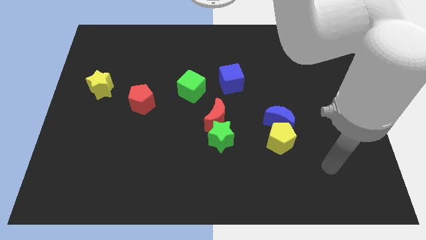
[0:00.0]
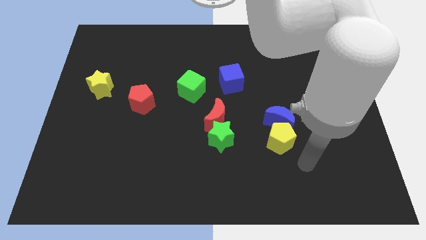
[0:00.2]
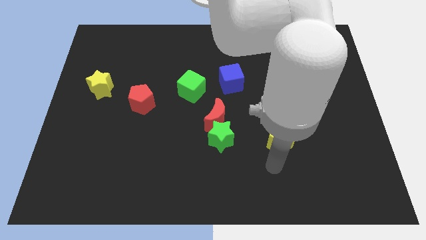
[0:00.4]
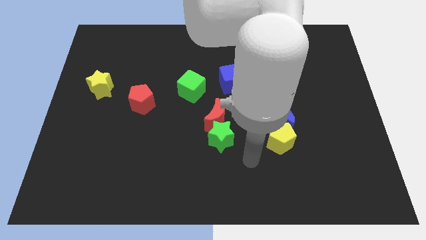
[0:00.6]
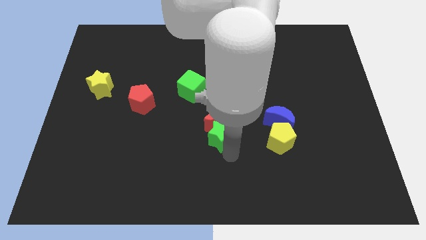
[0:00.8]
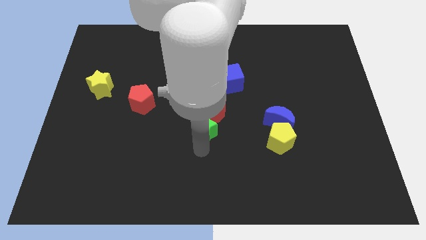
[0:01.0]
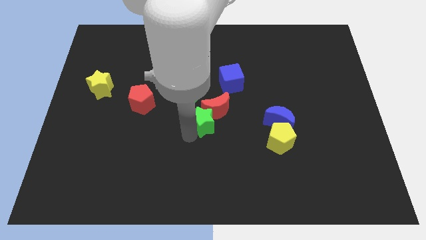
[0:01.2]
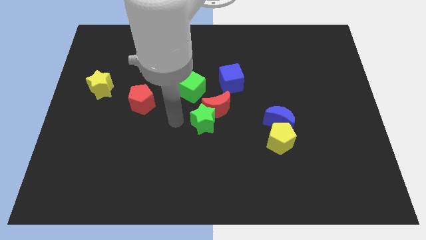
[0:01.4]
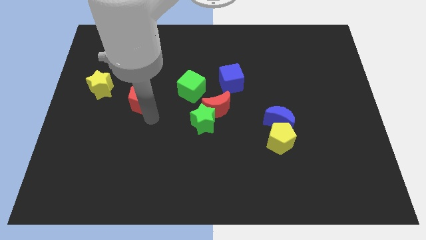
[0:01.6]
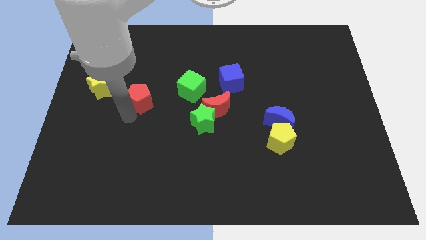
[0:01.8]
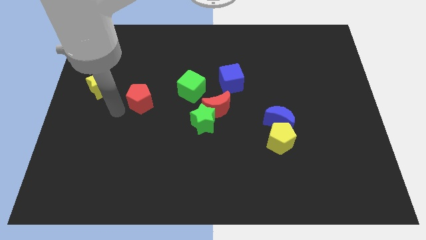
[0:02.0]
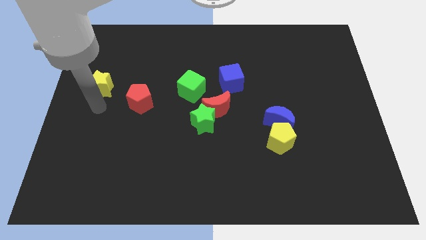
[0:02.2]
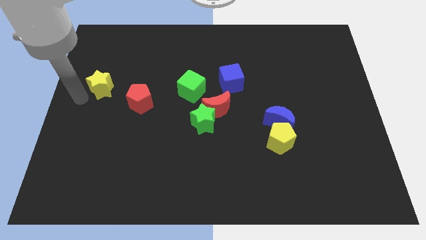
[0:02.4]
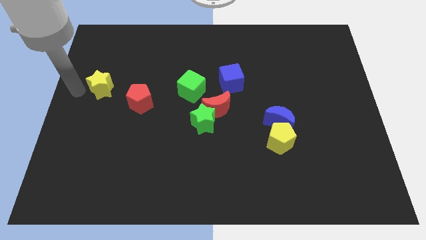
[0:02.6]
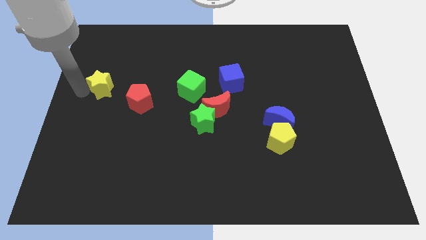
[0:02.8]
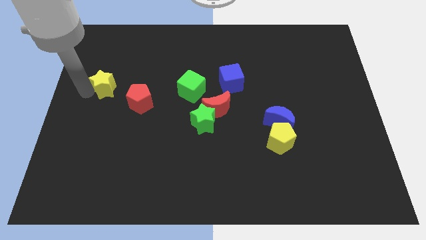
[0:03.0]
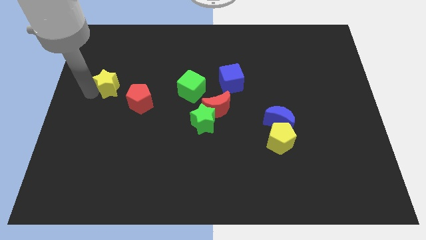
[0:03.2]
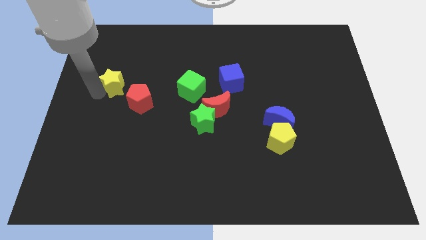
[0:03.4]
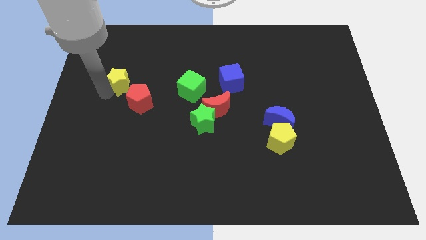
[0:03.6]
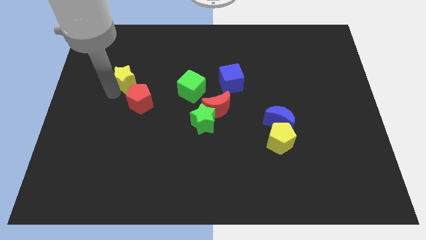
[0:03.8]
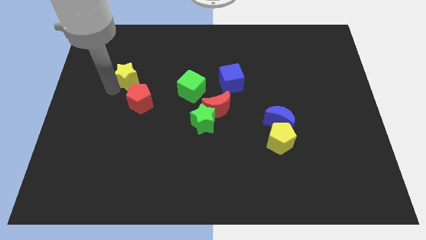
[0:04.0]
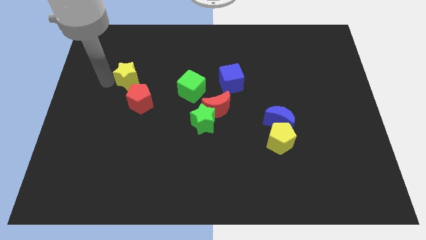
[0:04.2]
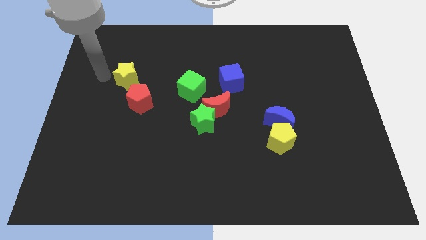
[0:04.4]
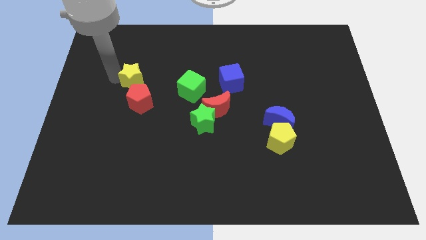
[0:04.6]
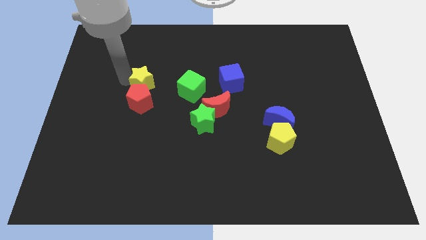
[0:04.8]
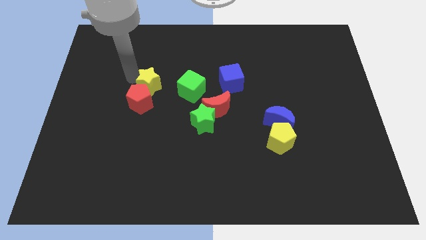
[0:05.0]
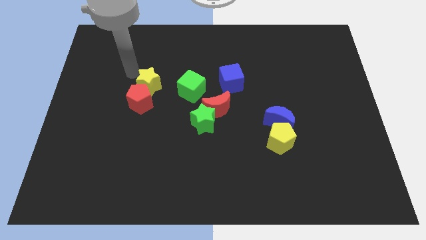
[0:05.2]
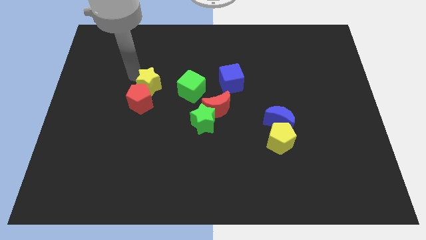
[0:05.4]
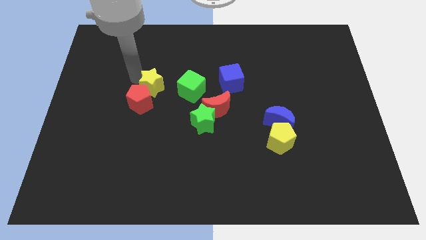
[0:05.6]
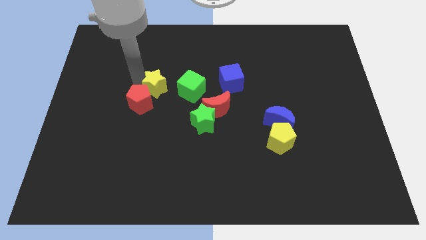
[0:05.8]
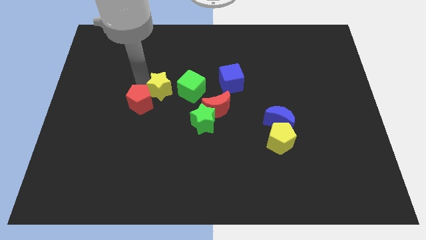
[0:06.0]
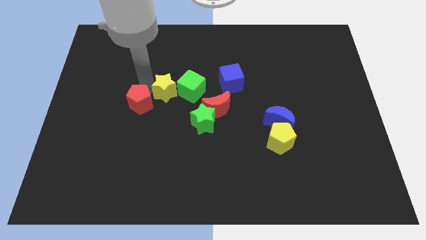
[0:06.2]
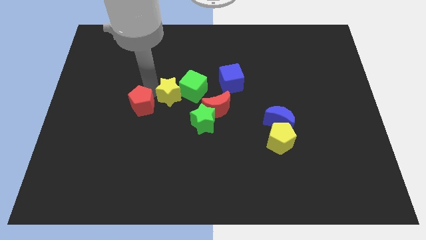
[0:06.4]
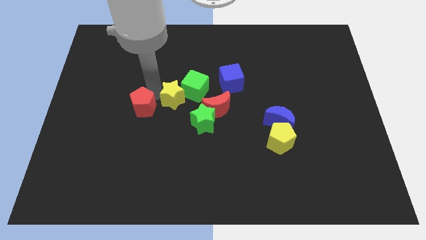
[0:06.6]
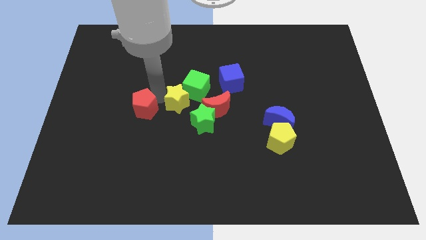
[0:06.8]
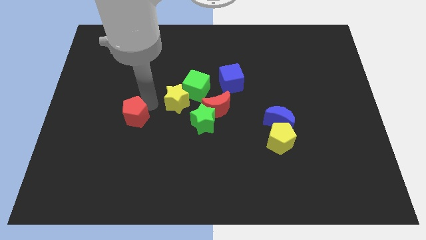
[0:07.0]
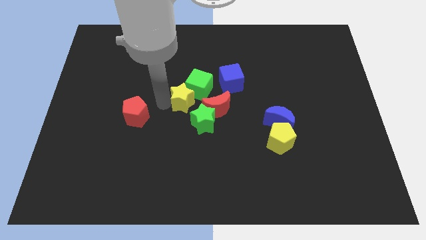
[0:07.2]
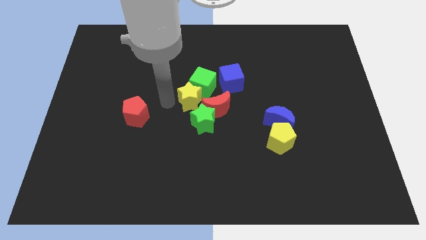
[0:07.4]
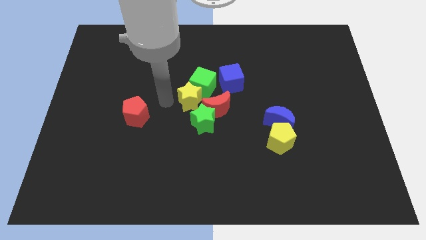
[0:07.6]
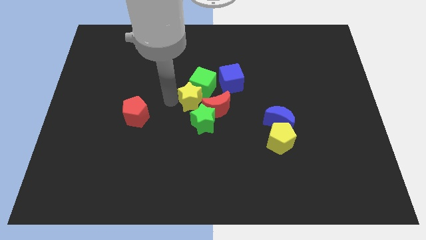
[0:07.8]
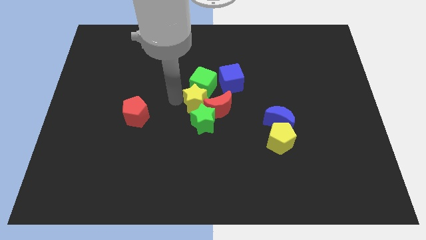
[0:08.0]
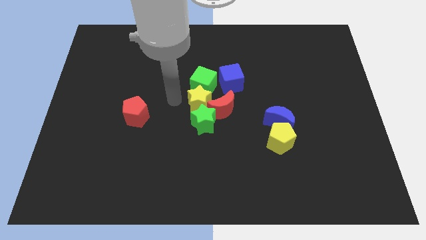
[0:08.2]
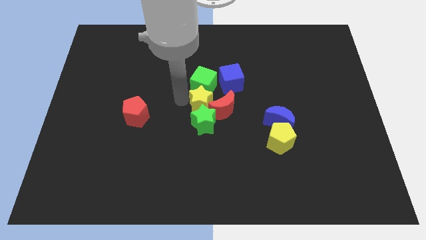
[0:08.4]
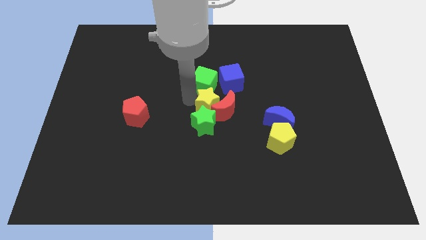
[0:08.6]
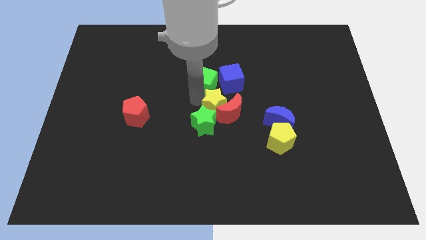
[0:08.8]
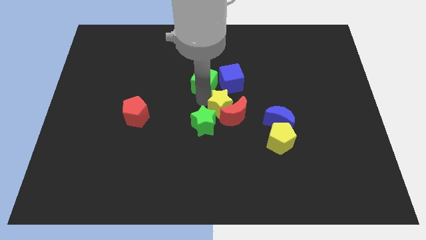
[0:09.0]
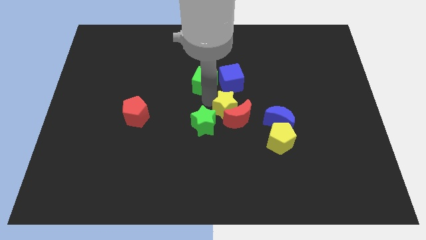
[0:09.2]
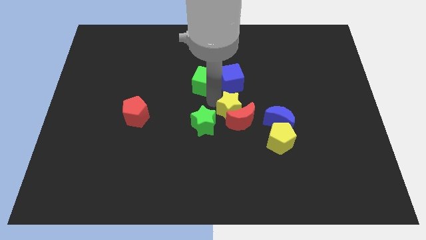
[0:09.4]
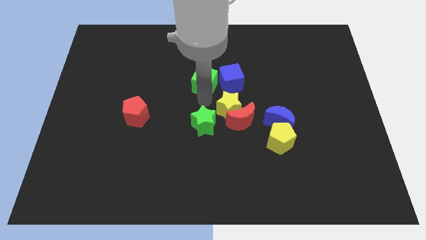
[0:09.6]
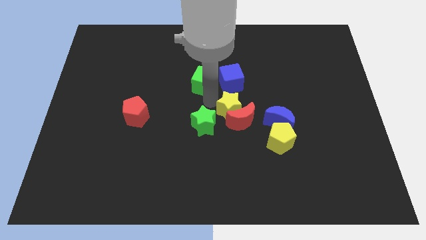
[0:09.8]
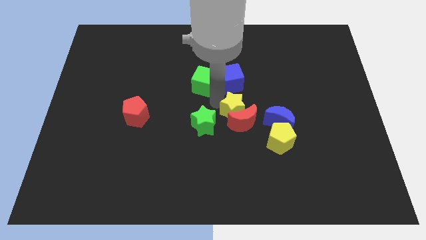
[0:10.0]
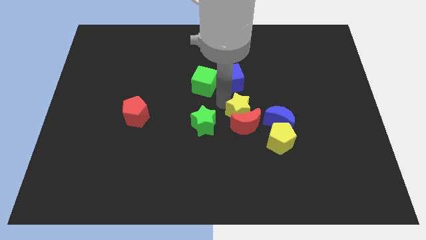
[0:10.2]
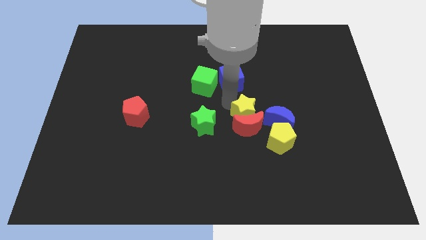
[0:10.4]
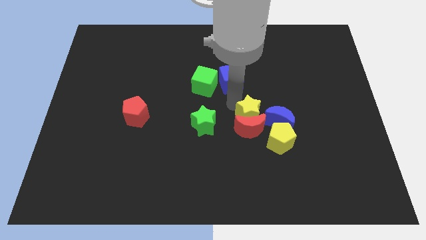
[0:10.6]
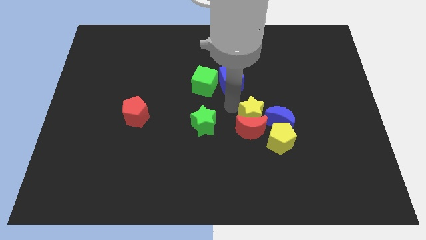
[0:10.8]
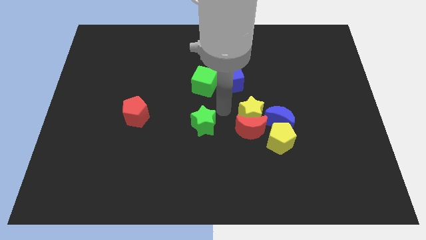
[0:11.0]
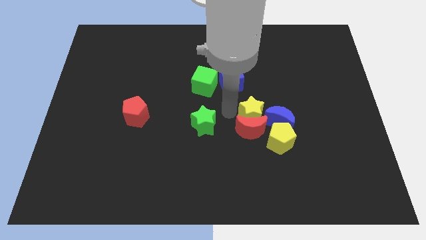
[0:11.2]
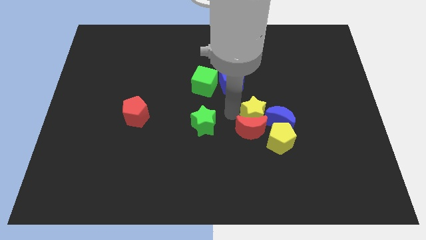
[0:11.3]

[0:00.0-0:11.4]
slide the yellow star to the blue moon
